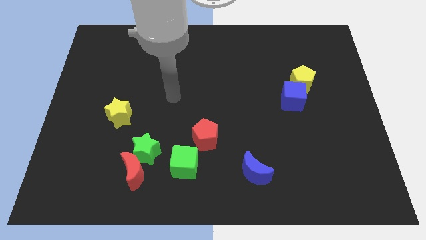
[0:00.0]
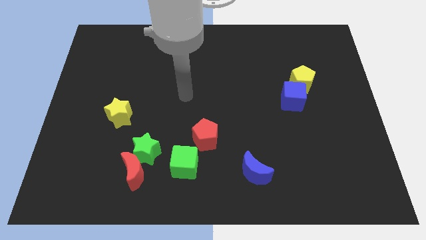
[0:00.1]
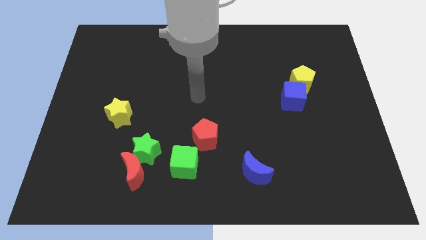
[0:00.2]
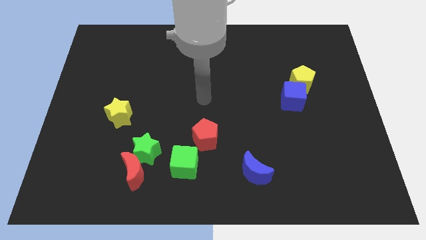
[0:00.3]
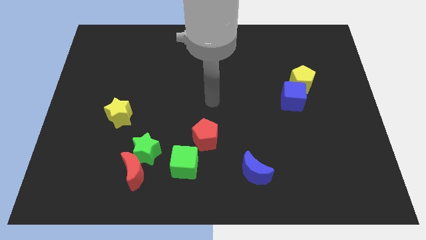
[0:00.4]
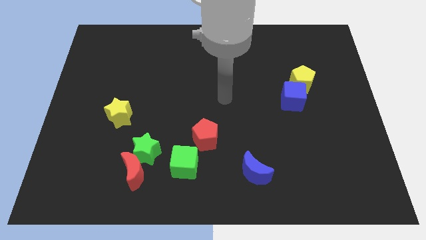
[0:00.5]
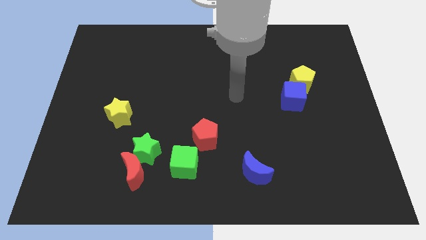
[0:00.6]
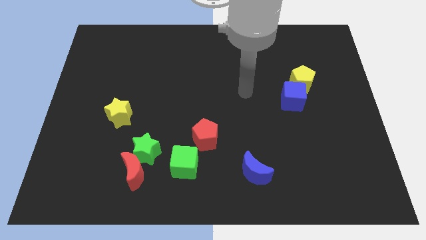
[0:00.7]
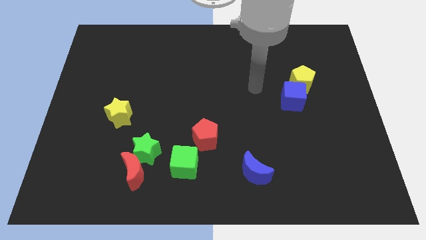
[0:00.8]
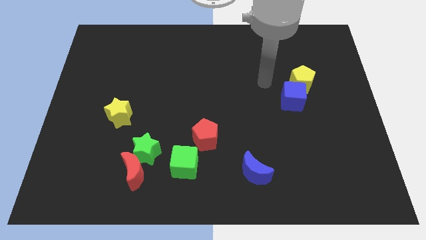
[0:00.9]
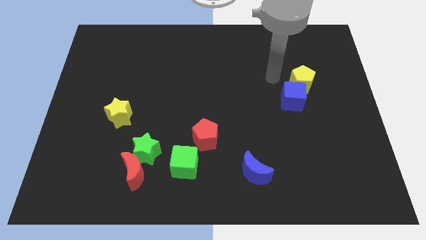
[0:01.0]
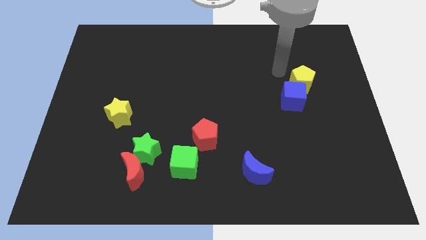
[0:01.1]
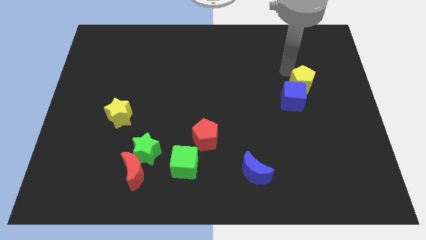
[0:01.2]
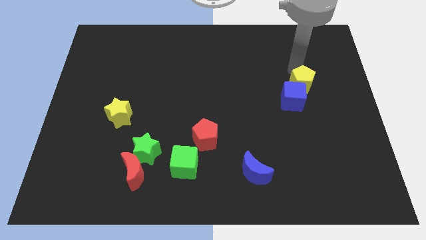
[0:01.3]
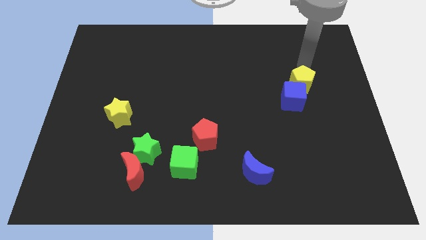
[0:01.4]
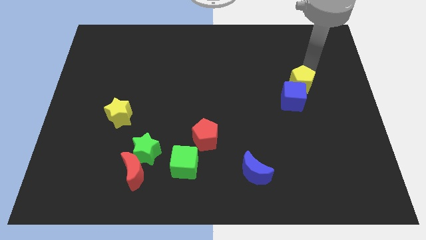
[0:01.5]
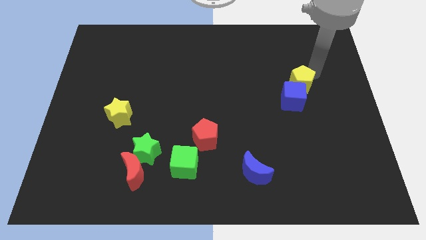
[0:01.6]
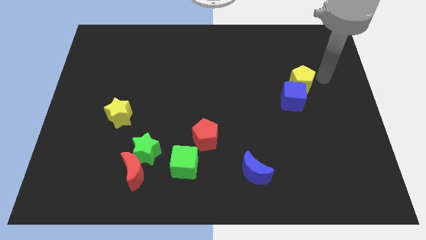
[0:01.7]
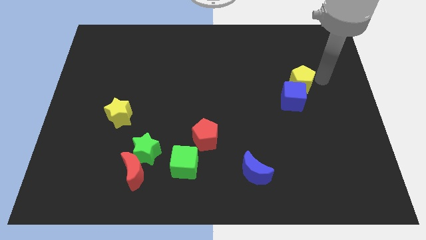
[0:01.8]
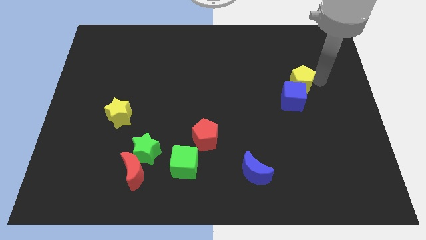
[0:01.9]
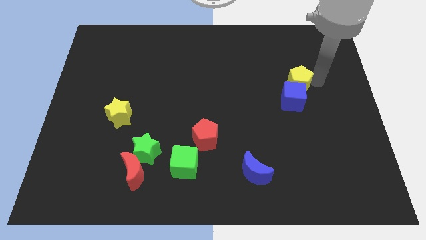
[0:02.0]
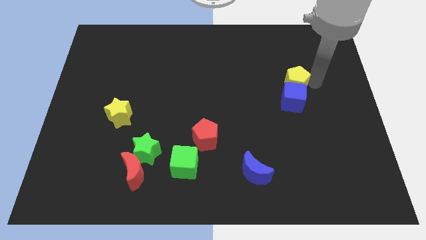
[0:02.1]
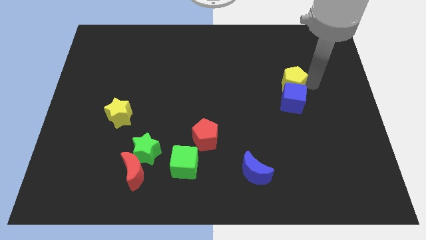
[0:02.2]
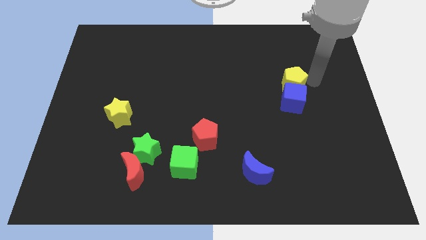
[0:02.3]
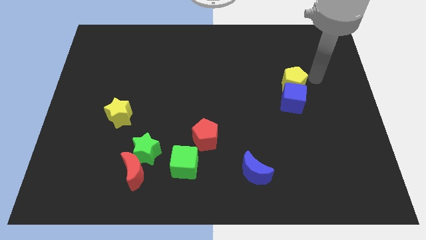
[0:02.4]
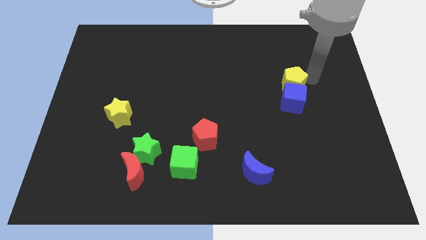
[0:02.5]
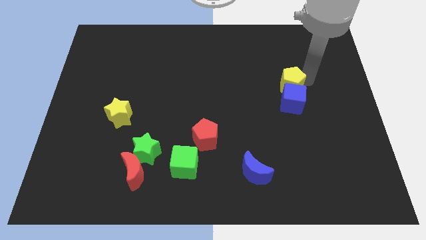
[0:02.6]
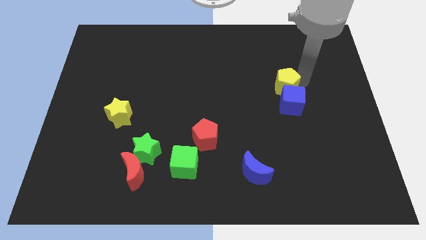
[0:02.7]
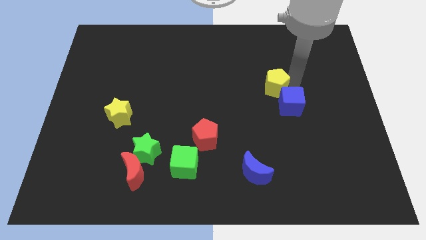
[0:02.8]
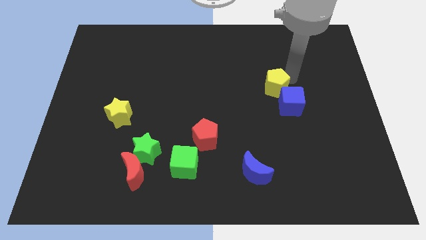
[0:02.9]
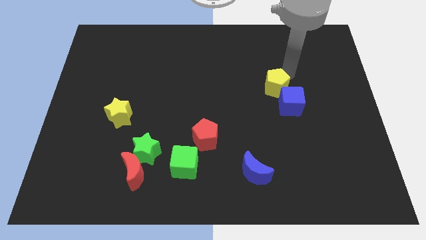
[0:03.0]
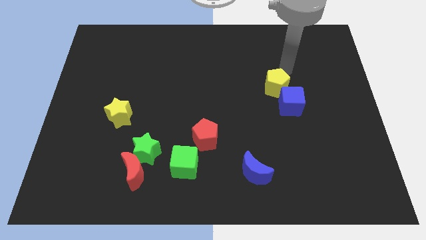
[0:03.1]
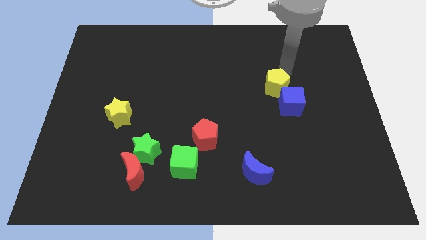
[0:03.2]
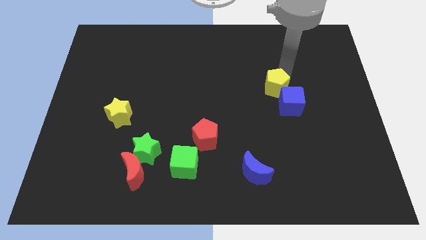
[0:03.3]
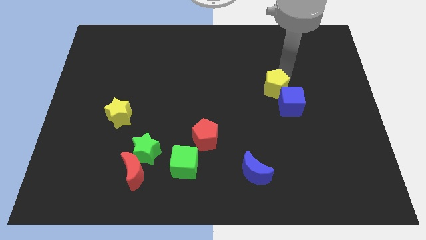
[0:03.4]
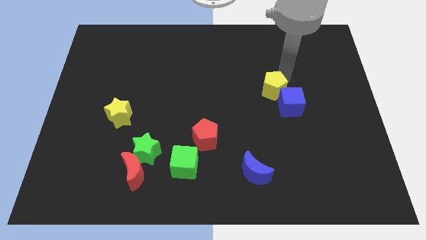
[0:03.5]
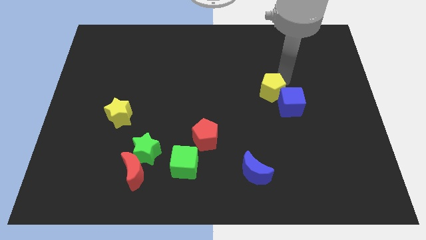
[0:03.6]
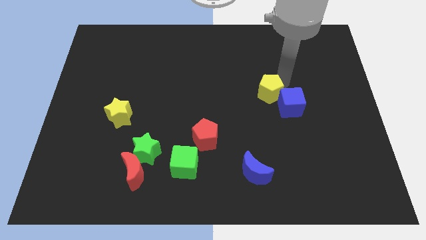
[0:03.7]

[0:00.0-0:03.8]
push the yellow pentagon down and then to the left somewhat

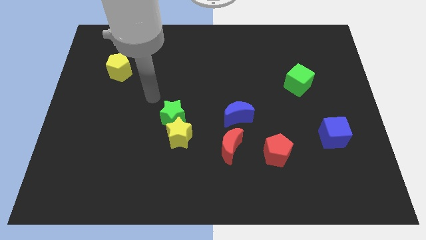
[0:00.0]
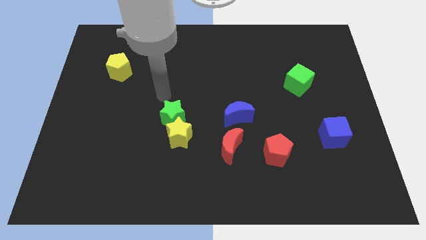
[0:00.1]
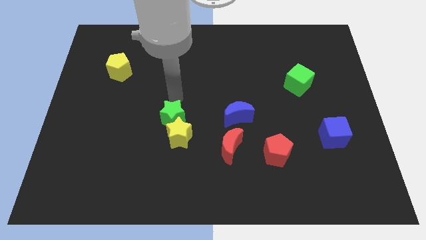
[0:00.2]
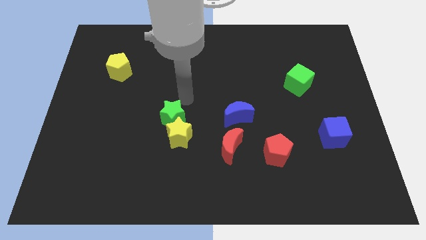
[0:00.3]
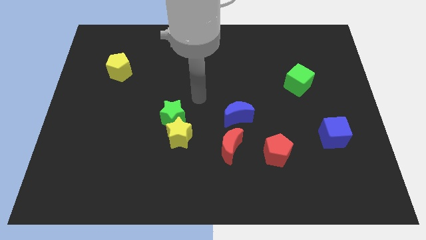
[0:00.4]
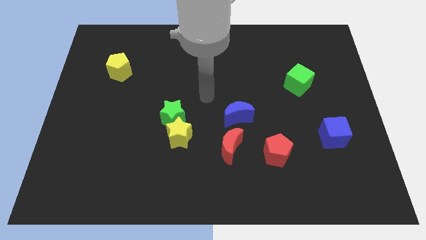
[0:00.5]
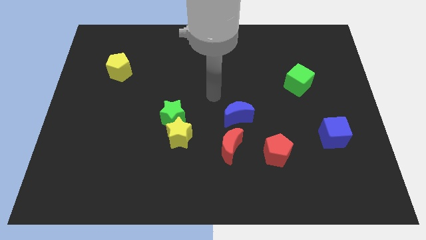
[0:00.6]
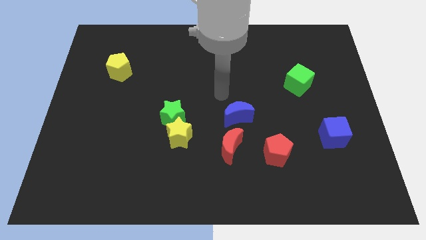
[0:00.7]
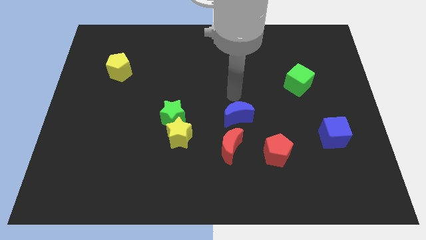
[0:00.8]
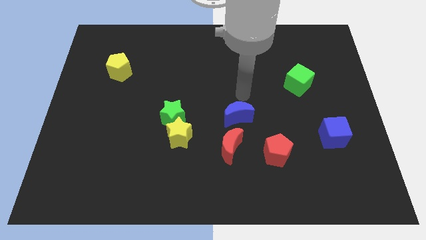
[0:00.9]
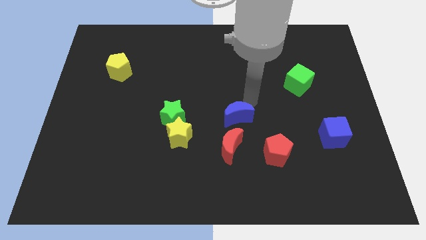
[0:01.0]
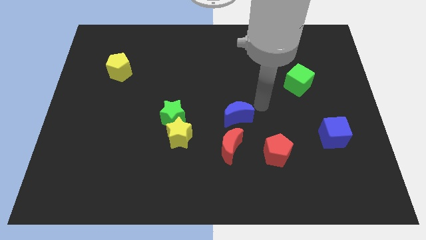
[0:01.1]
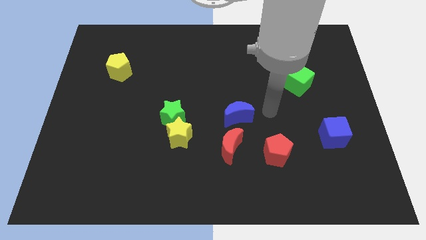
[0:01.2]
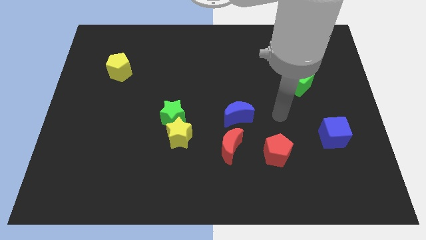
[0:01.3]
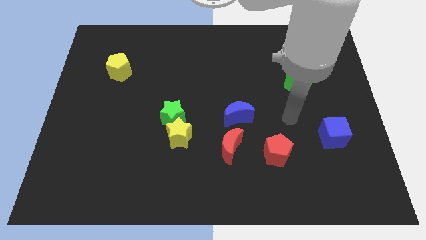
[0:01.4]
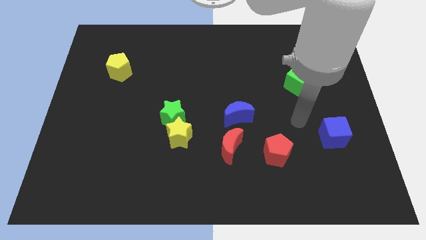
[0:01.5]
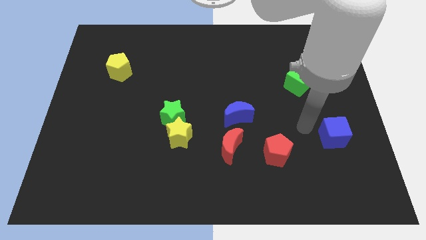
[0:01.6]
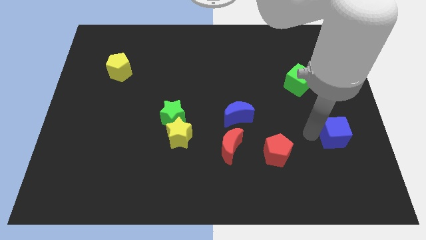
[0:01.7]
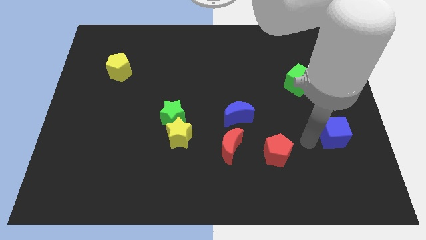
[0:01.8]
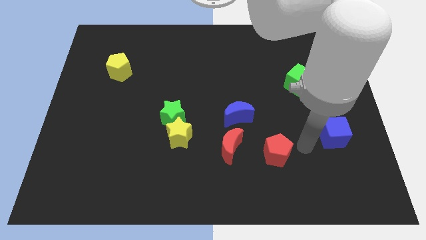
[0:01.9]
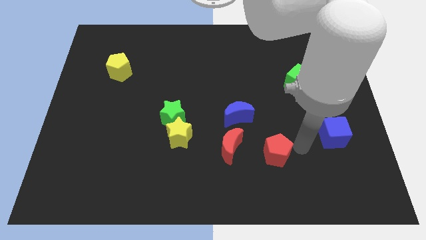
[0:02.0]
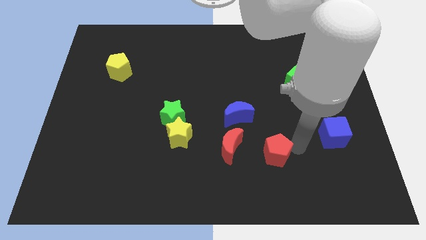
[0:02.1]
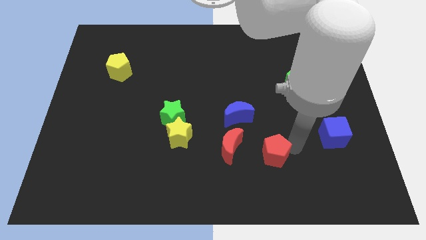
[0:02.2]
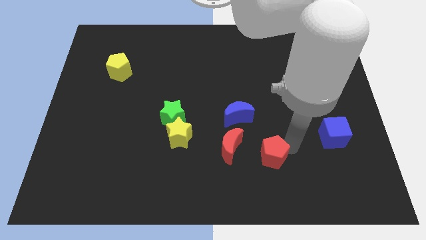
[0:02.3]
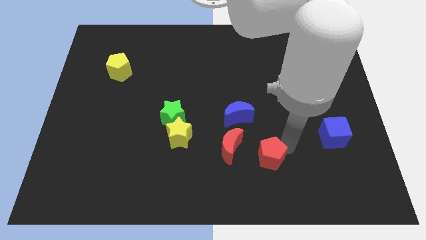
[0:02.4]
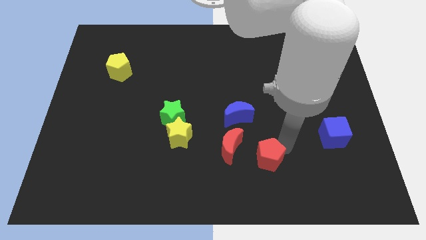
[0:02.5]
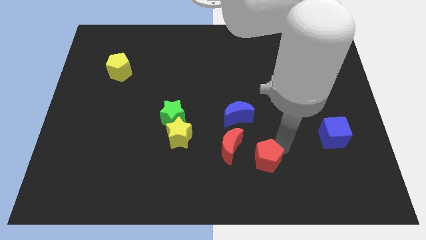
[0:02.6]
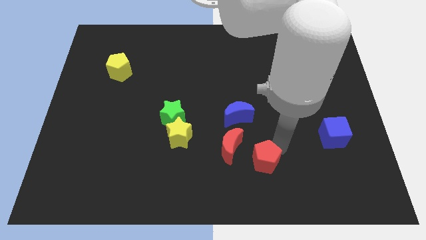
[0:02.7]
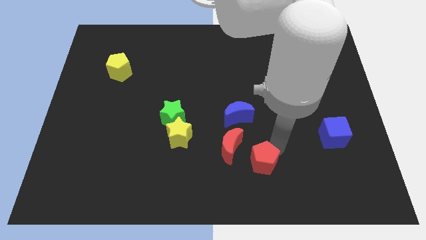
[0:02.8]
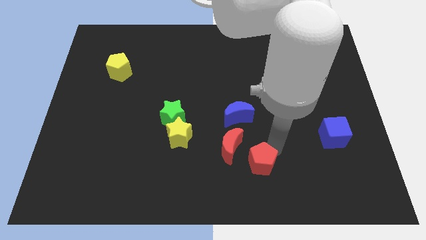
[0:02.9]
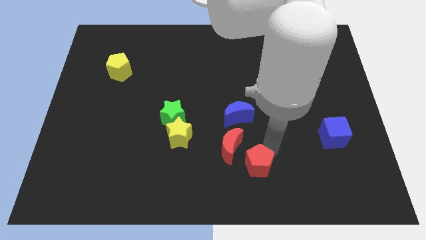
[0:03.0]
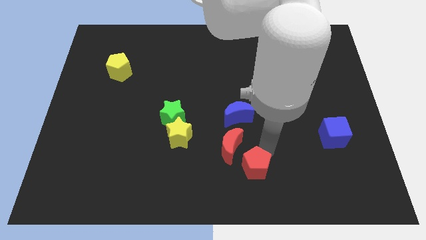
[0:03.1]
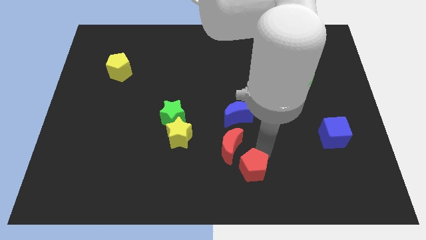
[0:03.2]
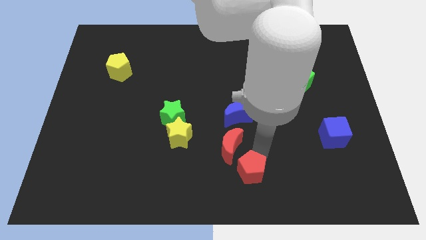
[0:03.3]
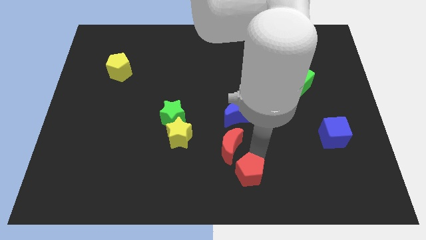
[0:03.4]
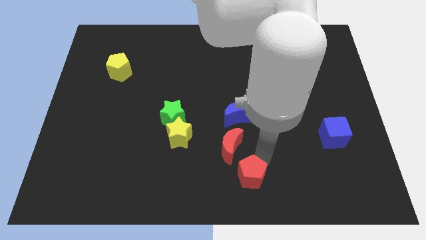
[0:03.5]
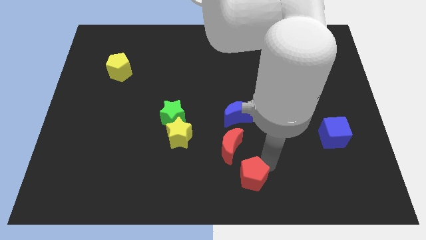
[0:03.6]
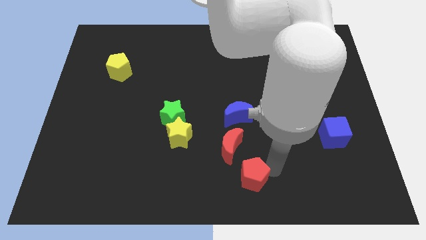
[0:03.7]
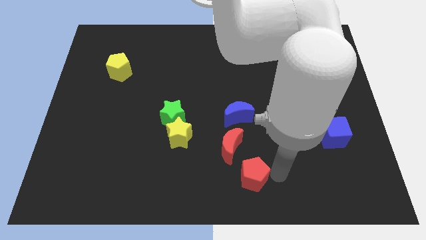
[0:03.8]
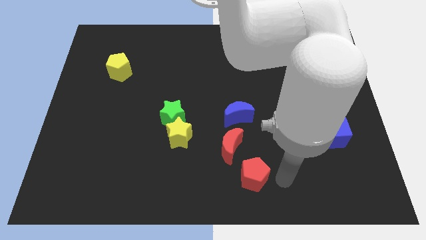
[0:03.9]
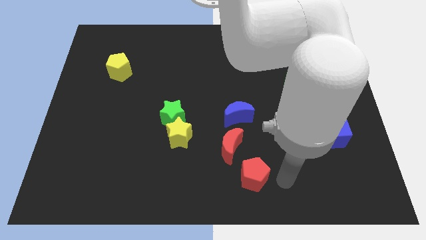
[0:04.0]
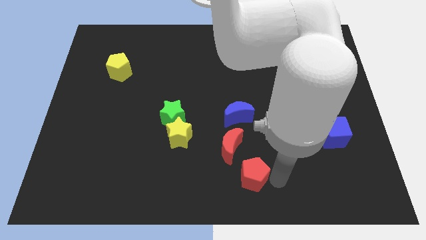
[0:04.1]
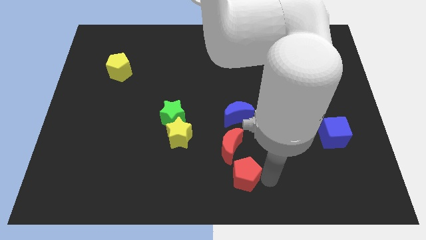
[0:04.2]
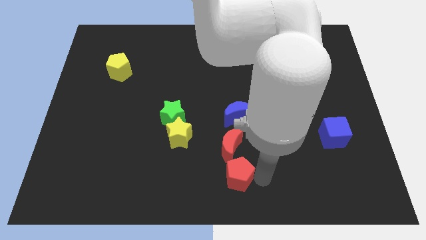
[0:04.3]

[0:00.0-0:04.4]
slide the red pentagon a little bit left

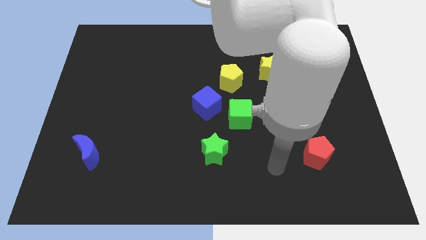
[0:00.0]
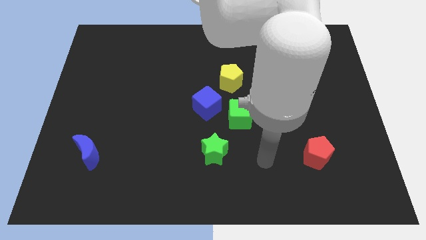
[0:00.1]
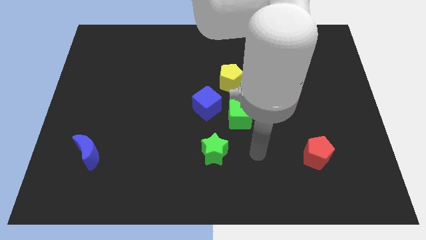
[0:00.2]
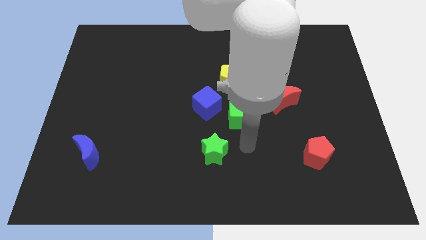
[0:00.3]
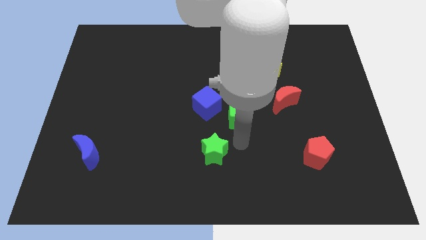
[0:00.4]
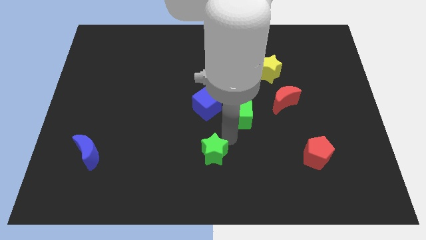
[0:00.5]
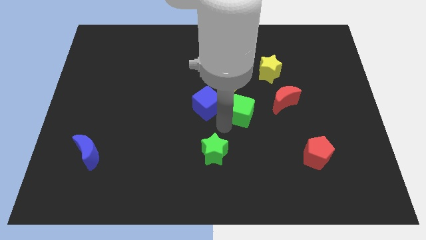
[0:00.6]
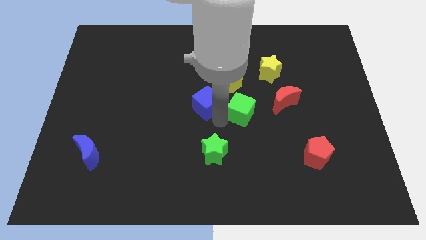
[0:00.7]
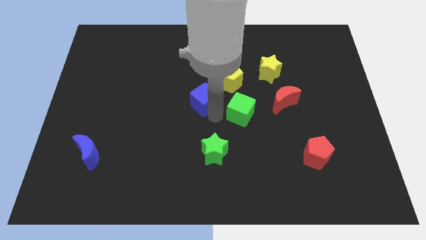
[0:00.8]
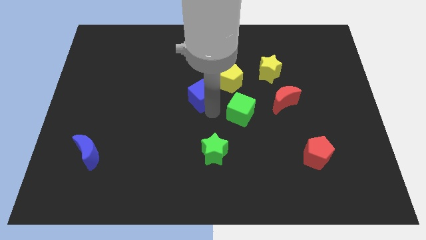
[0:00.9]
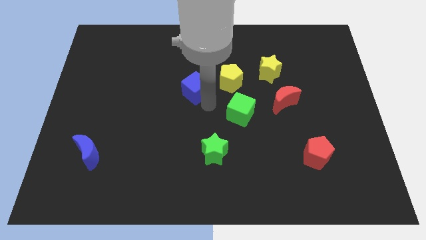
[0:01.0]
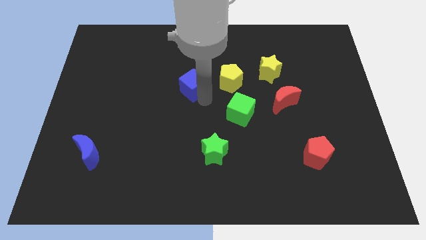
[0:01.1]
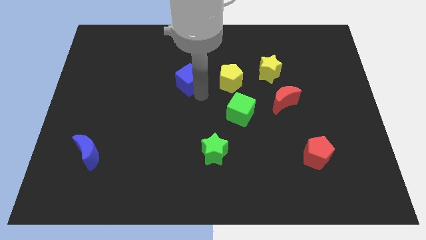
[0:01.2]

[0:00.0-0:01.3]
slide the blue cube a little up and then left
